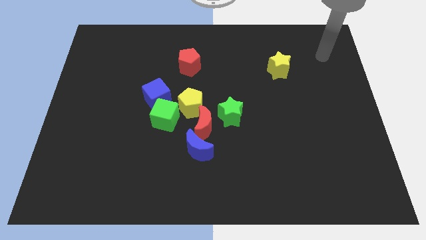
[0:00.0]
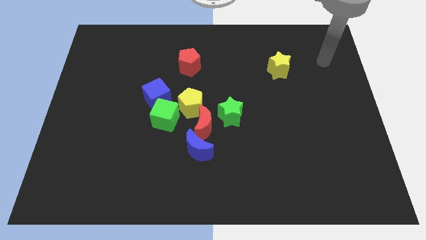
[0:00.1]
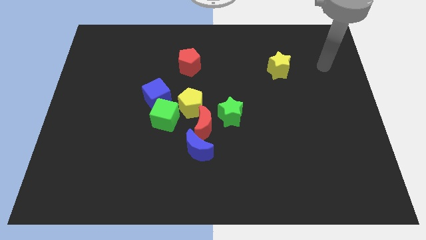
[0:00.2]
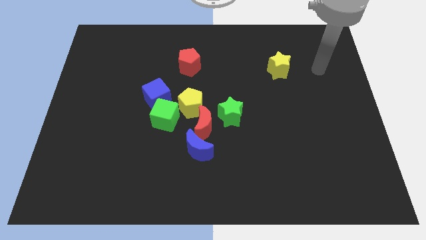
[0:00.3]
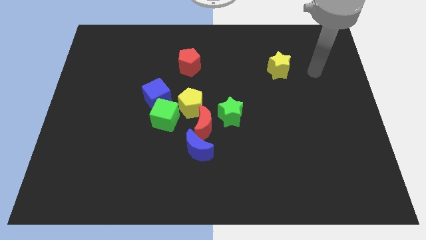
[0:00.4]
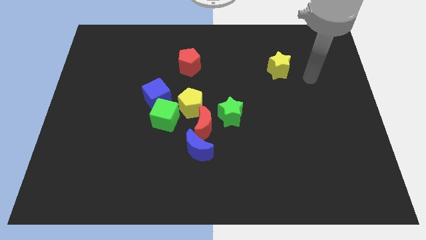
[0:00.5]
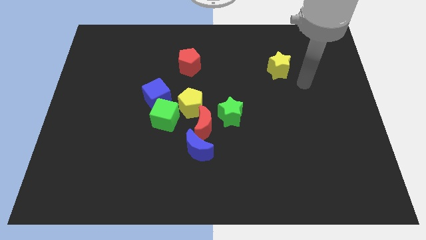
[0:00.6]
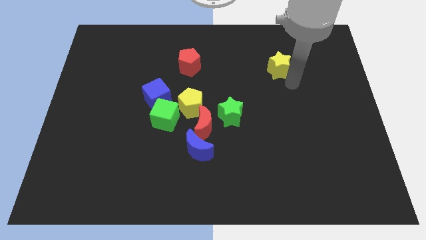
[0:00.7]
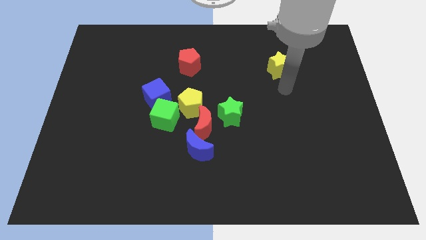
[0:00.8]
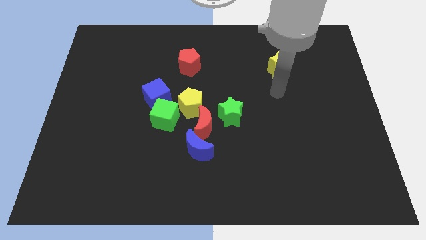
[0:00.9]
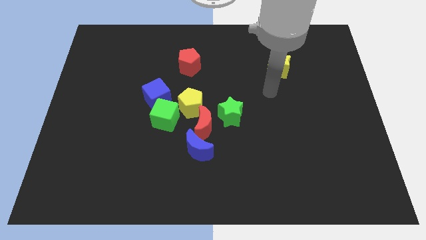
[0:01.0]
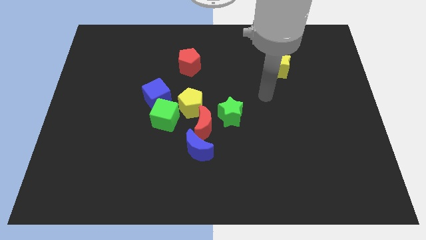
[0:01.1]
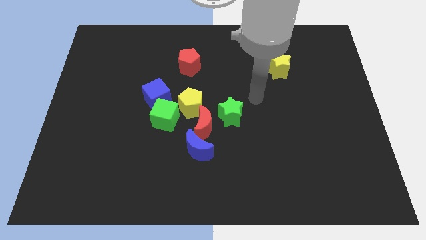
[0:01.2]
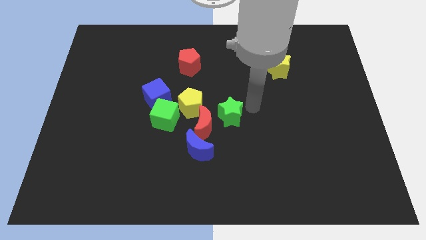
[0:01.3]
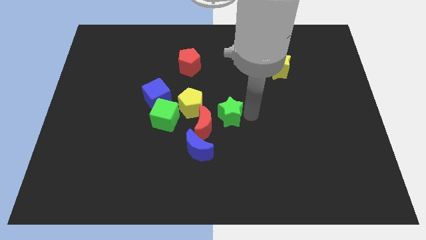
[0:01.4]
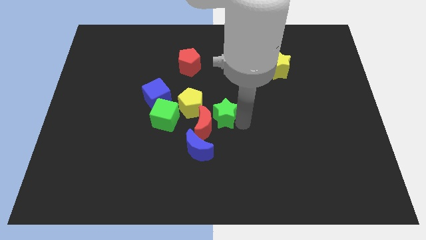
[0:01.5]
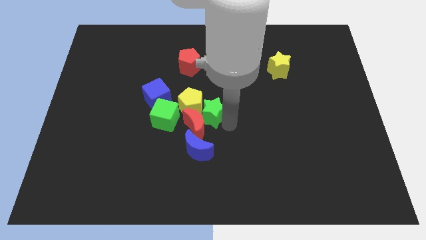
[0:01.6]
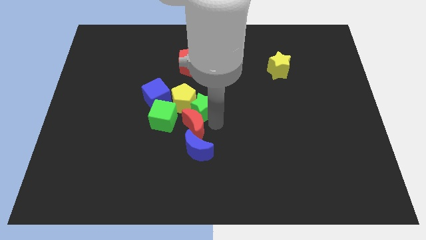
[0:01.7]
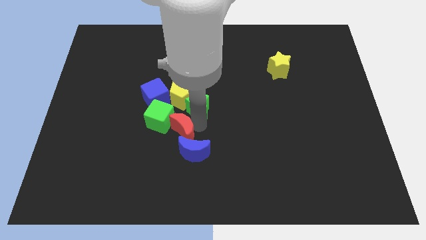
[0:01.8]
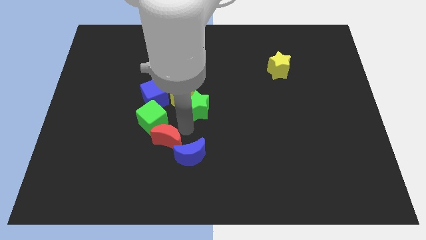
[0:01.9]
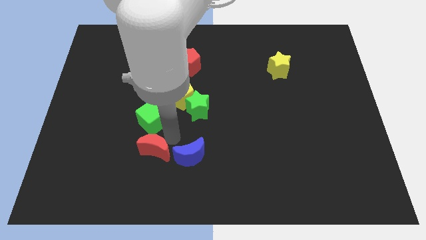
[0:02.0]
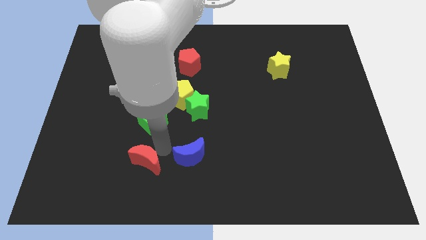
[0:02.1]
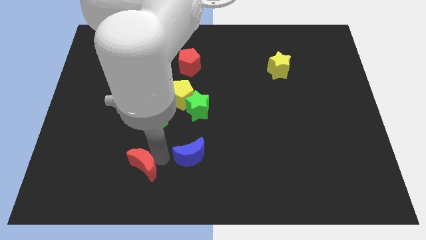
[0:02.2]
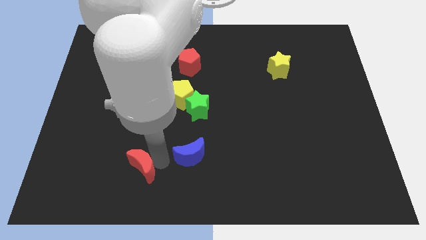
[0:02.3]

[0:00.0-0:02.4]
pull the blue moon apart from the red moon

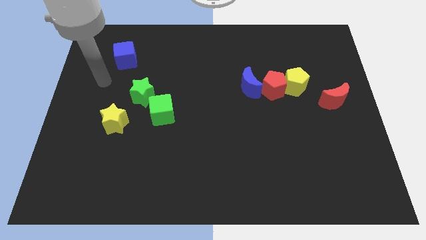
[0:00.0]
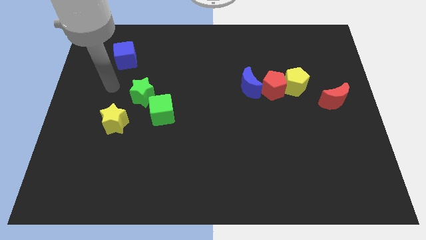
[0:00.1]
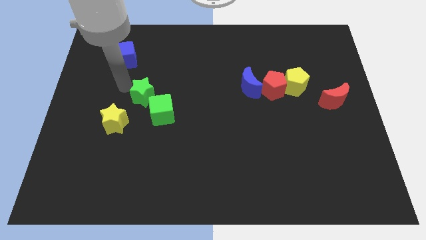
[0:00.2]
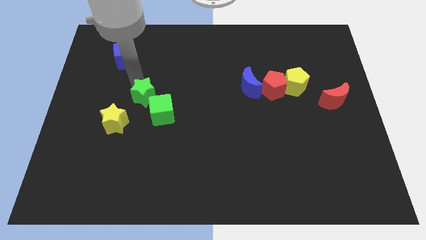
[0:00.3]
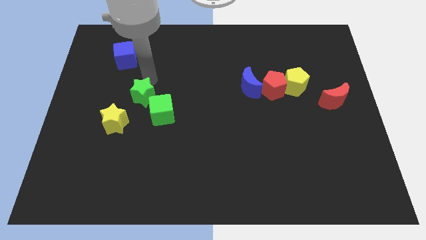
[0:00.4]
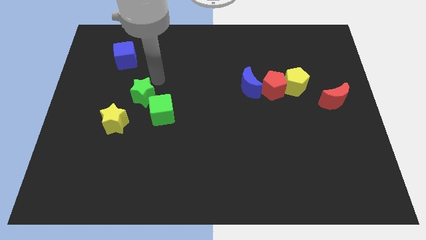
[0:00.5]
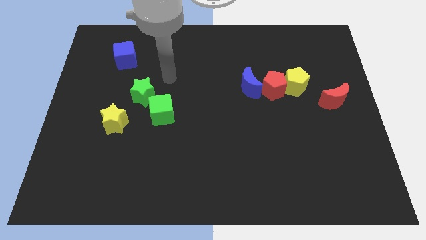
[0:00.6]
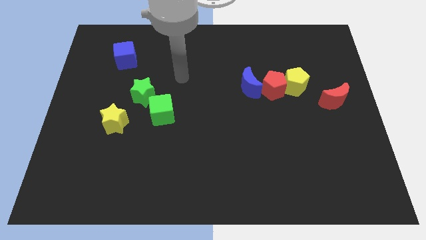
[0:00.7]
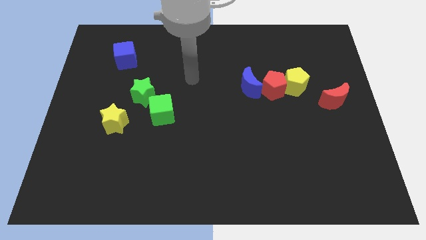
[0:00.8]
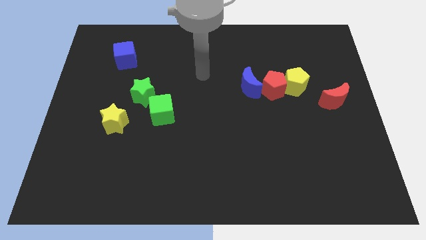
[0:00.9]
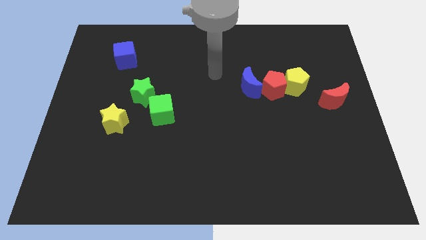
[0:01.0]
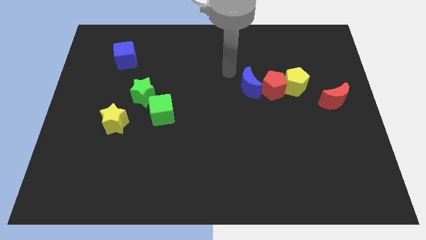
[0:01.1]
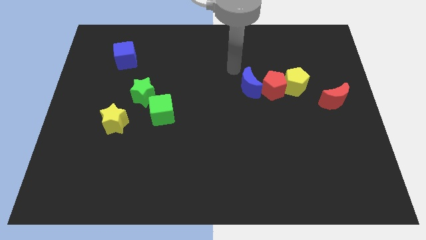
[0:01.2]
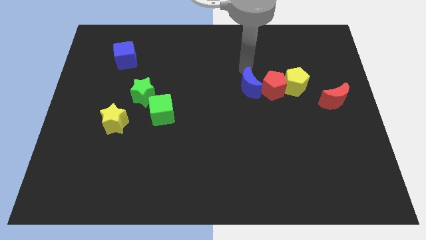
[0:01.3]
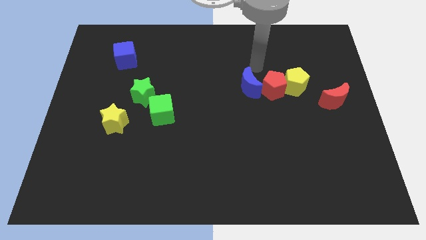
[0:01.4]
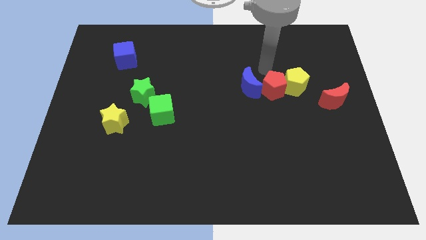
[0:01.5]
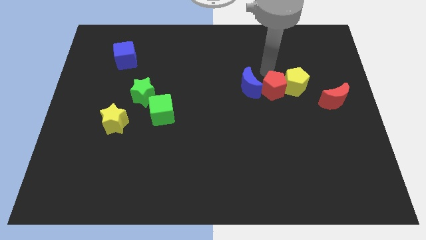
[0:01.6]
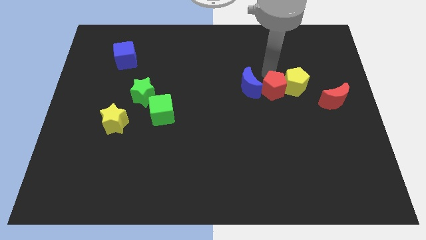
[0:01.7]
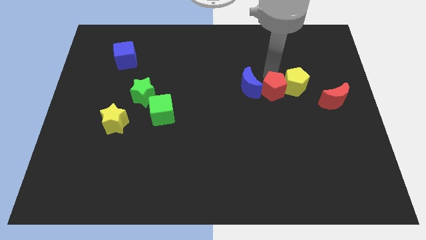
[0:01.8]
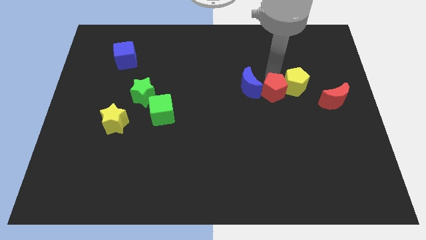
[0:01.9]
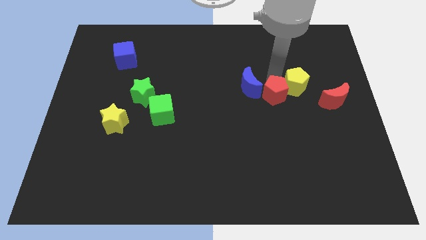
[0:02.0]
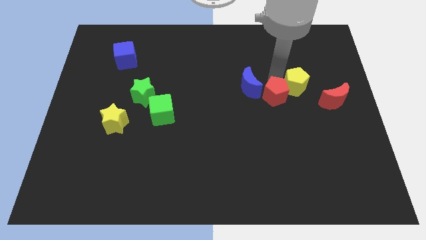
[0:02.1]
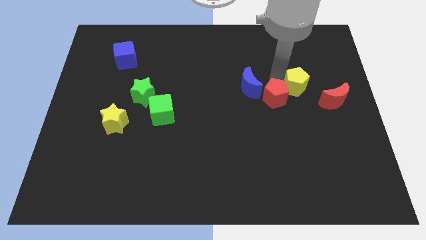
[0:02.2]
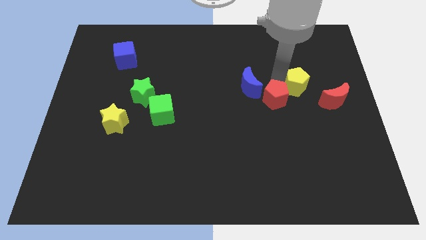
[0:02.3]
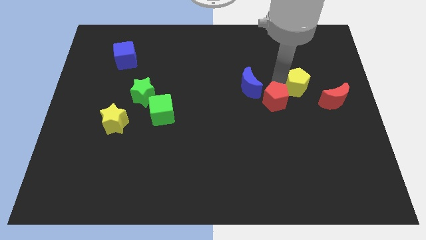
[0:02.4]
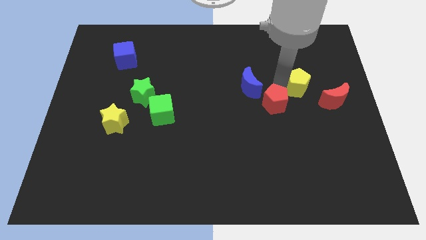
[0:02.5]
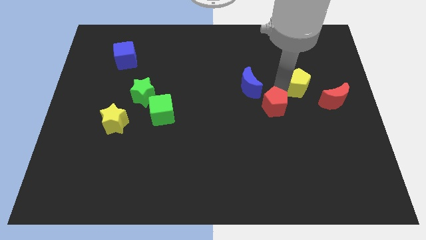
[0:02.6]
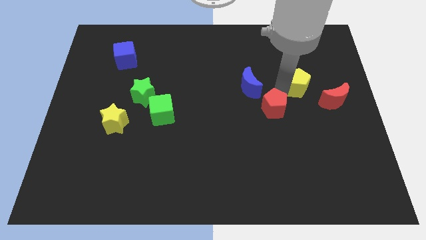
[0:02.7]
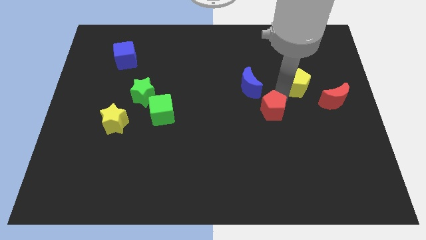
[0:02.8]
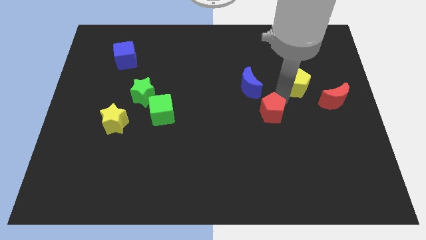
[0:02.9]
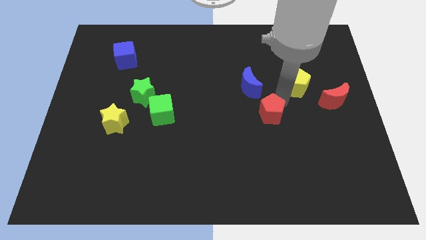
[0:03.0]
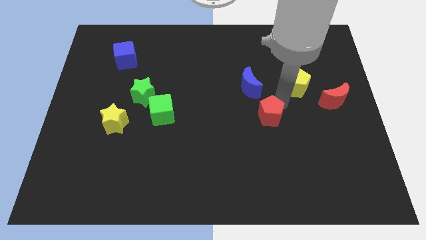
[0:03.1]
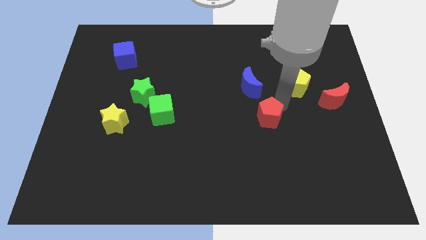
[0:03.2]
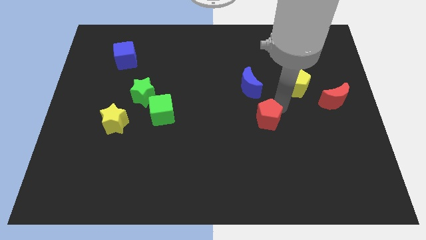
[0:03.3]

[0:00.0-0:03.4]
move the red pentagon away from the yellow pentagon and blue moon

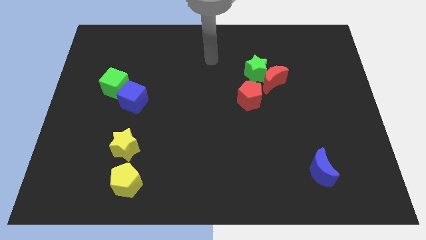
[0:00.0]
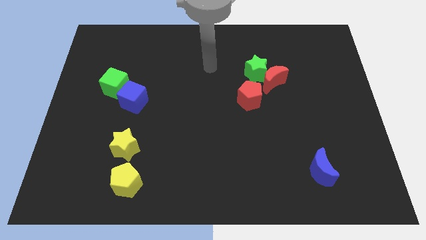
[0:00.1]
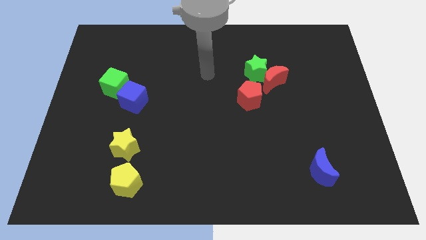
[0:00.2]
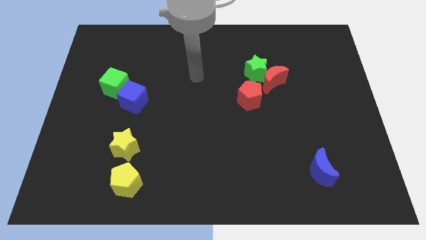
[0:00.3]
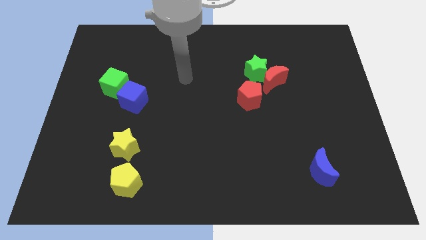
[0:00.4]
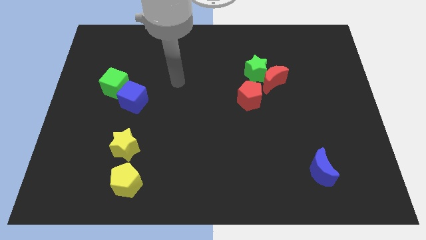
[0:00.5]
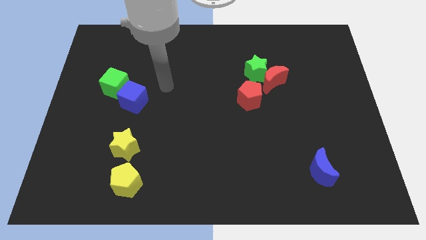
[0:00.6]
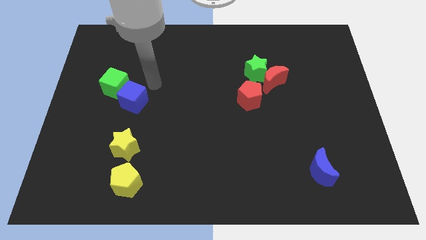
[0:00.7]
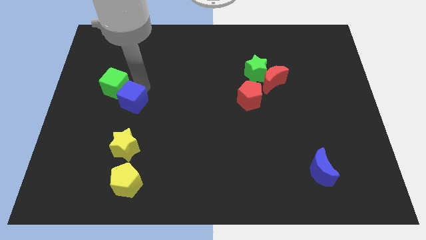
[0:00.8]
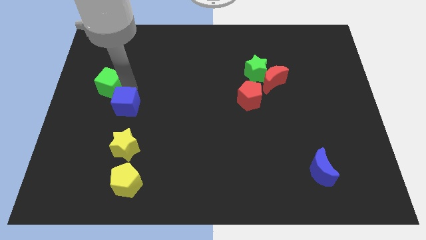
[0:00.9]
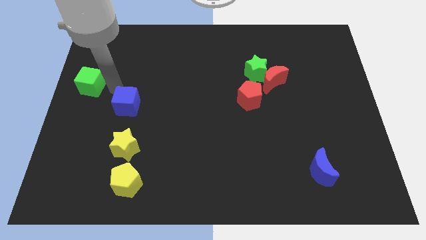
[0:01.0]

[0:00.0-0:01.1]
separate the blue cube from the green cube

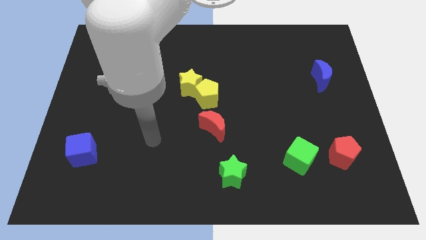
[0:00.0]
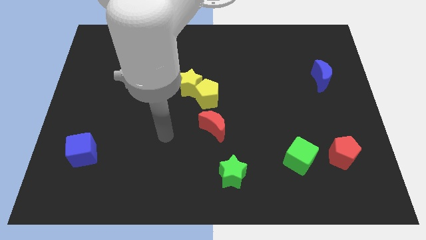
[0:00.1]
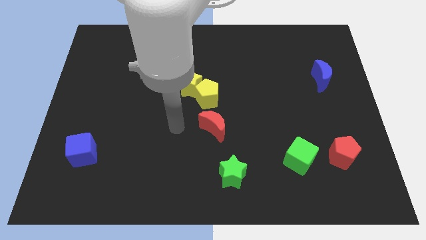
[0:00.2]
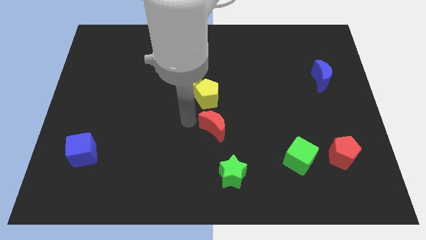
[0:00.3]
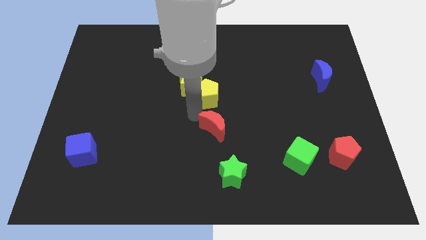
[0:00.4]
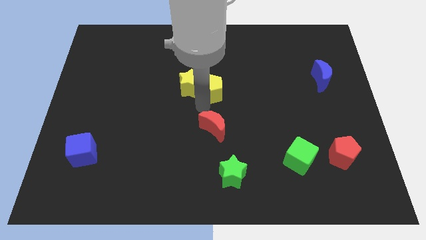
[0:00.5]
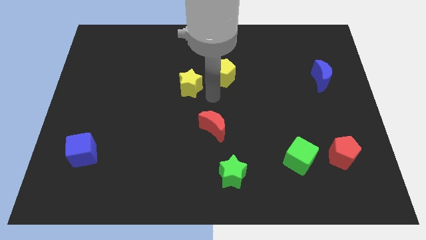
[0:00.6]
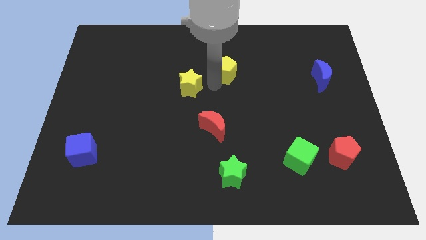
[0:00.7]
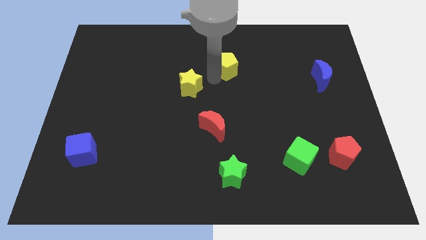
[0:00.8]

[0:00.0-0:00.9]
separate the yellow star from the yellow pentagon

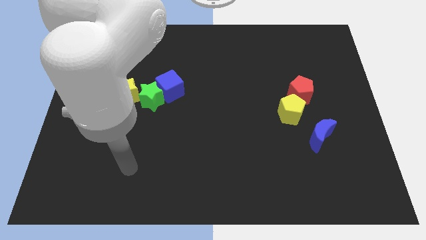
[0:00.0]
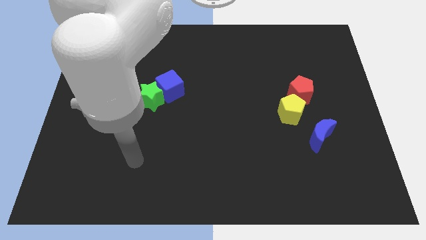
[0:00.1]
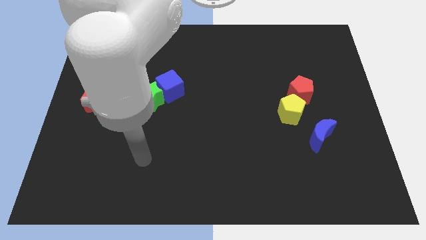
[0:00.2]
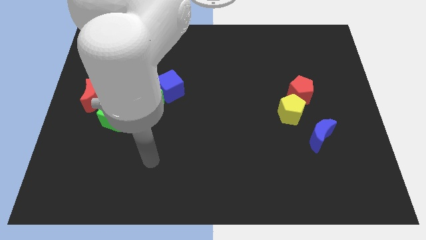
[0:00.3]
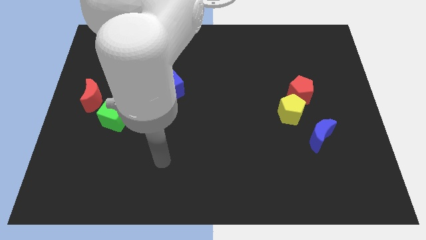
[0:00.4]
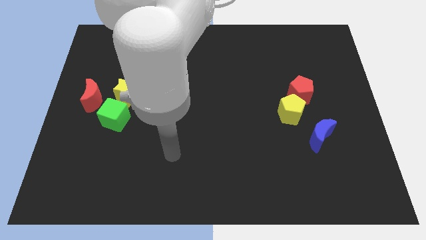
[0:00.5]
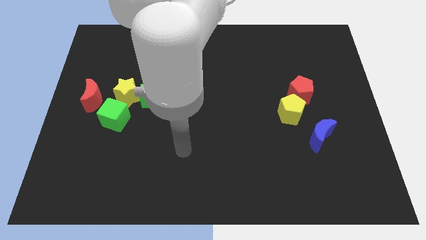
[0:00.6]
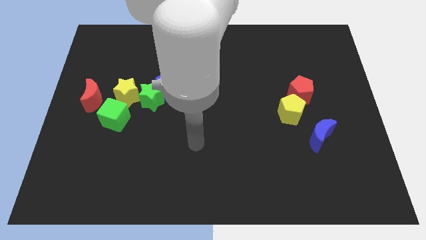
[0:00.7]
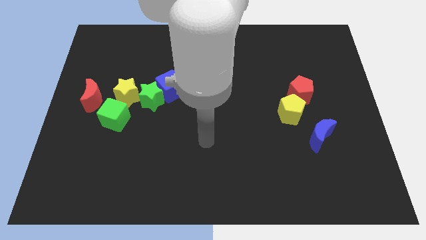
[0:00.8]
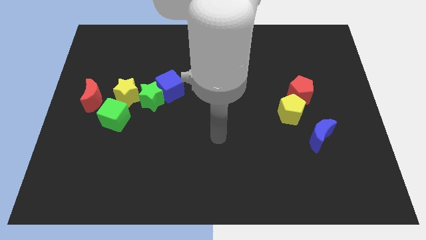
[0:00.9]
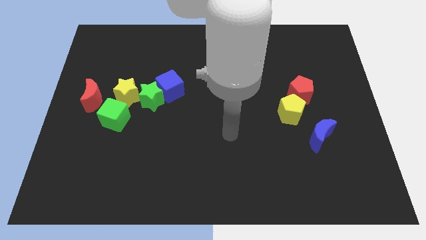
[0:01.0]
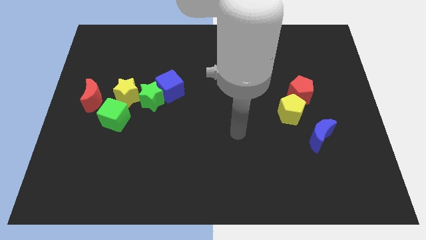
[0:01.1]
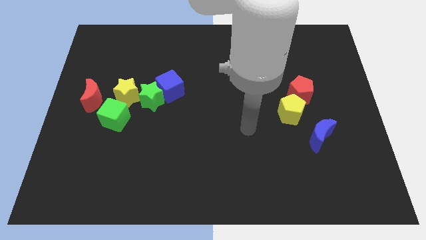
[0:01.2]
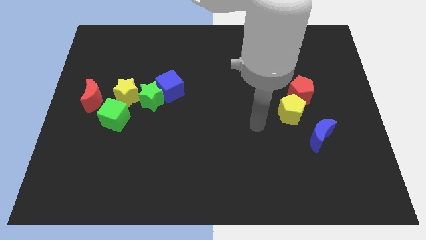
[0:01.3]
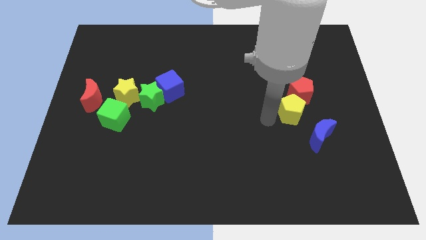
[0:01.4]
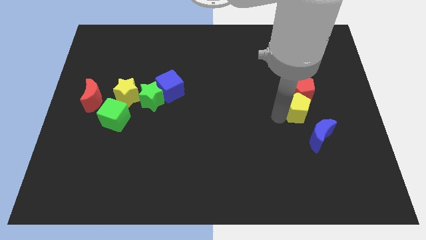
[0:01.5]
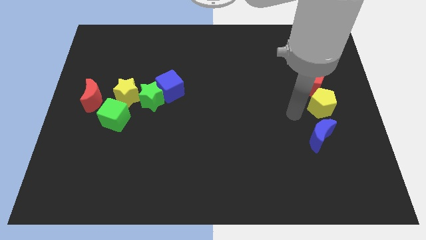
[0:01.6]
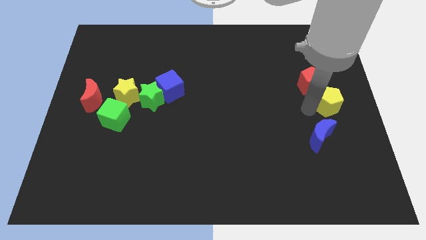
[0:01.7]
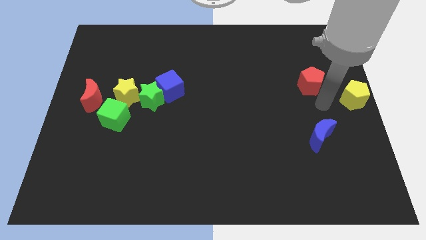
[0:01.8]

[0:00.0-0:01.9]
separate the red pentagon from the yellow pentagon
